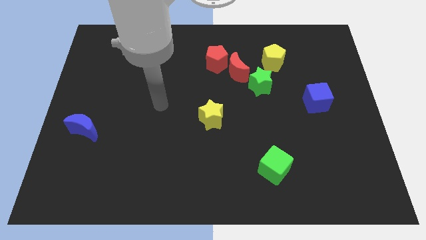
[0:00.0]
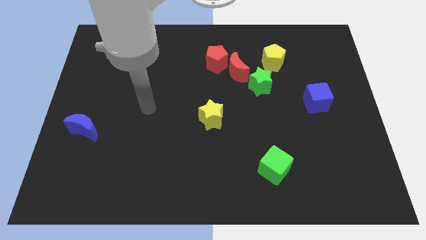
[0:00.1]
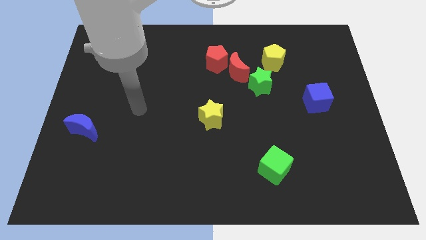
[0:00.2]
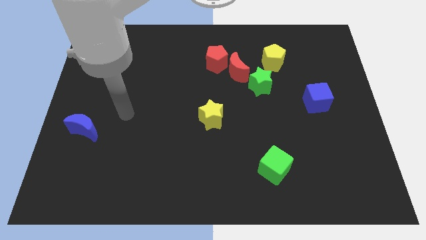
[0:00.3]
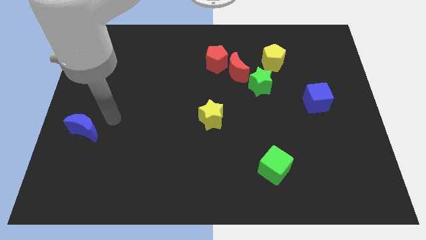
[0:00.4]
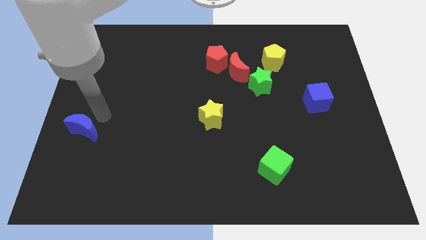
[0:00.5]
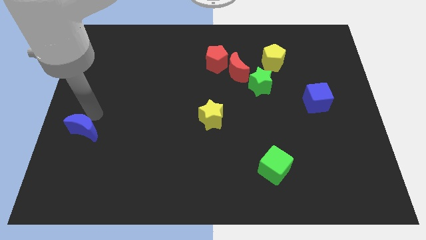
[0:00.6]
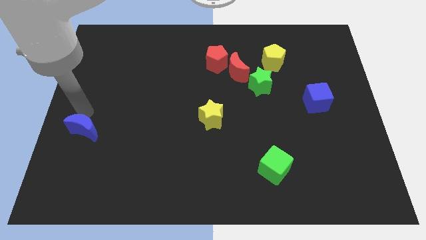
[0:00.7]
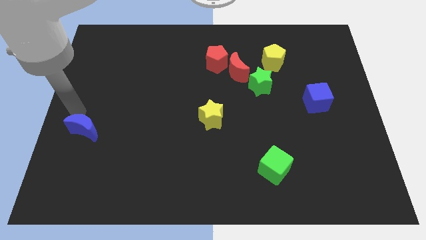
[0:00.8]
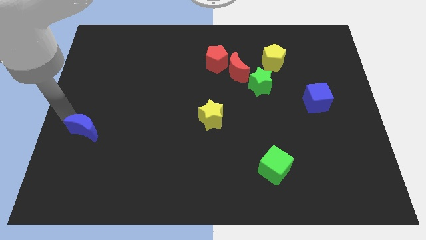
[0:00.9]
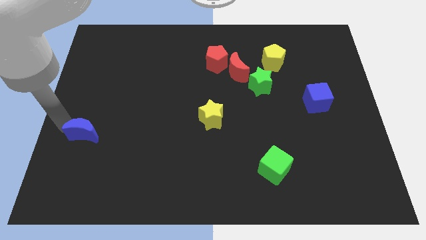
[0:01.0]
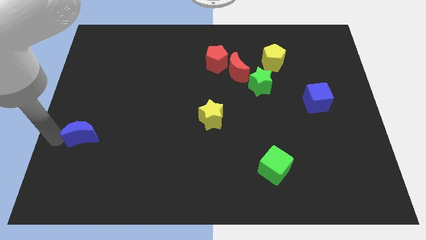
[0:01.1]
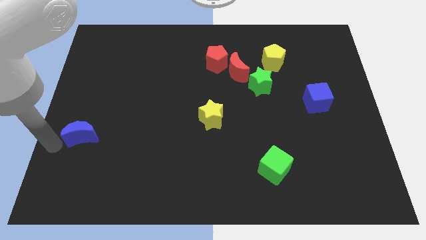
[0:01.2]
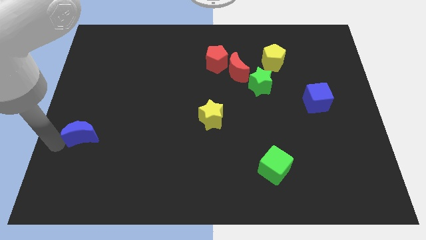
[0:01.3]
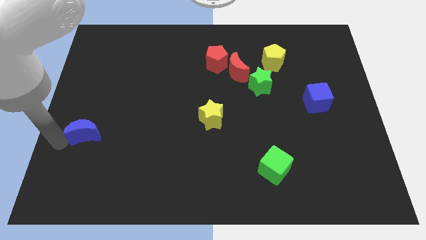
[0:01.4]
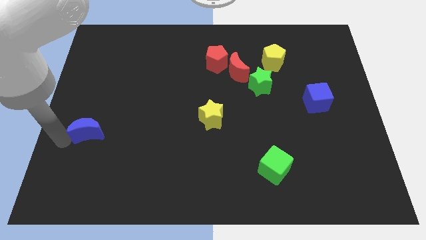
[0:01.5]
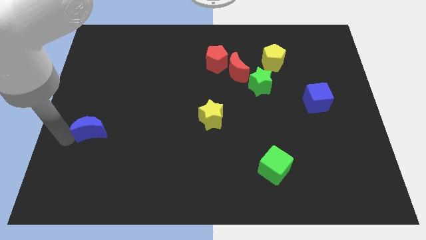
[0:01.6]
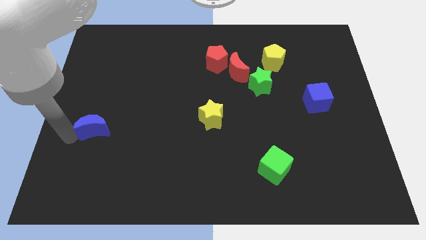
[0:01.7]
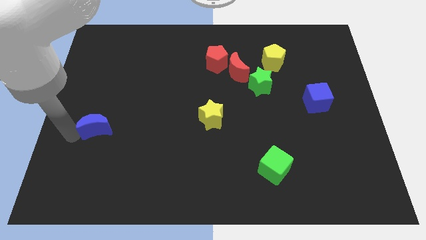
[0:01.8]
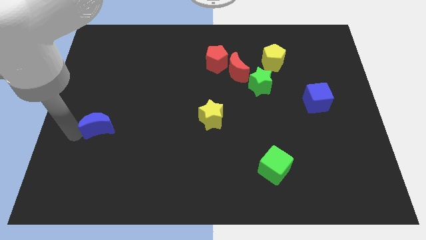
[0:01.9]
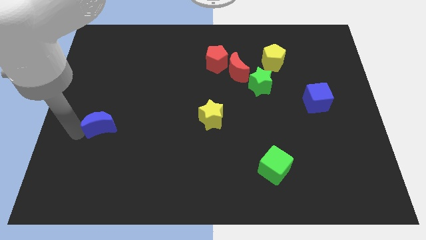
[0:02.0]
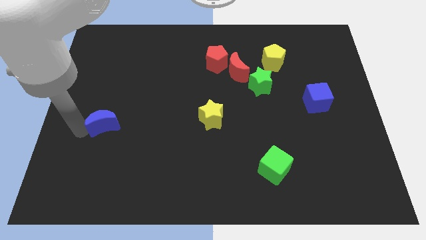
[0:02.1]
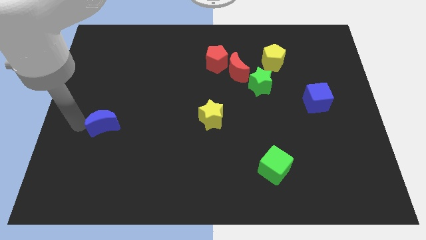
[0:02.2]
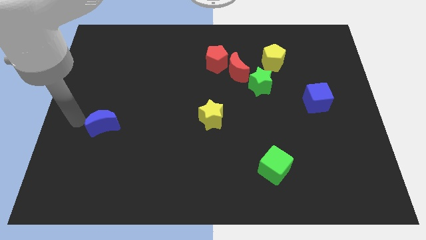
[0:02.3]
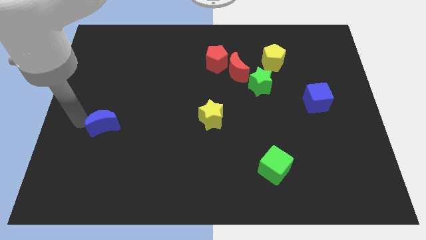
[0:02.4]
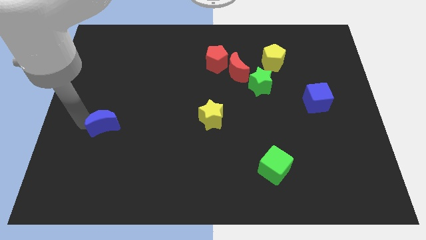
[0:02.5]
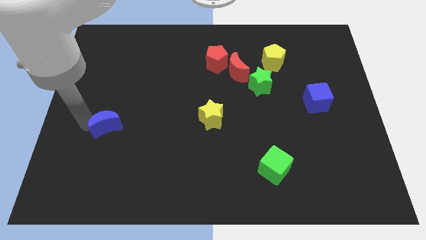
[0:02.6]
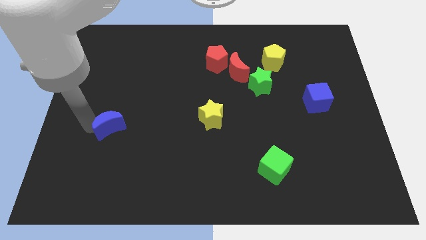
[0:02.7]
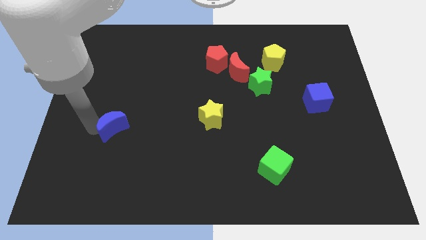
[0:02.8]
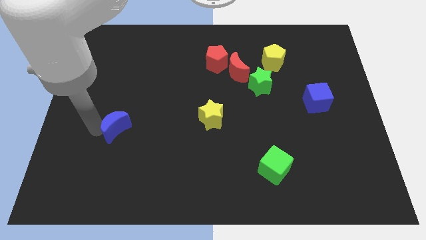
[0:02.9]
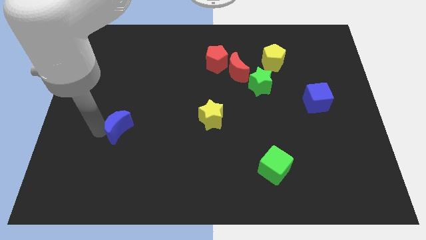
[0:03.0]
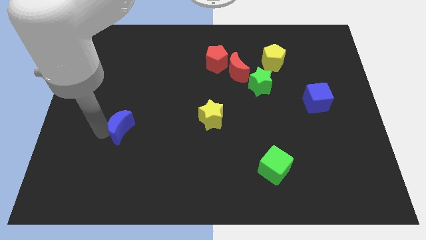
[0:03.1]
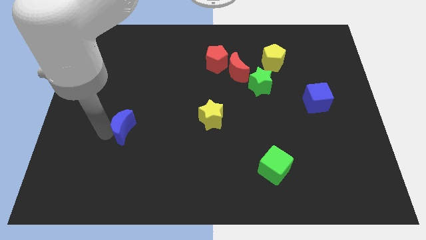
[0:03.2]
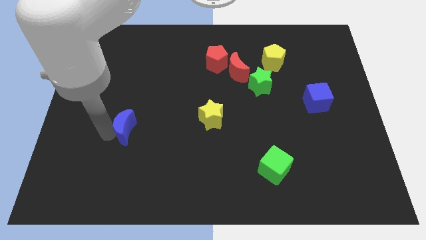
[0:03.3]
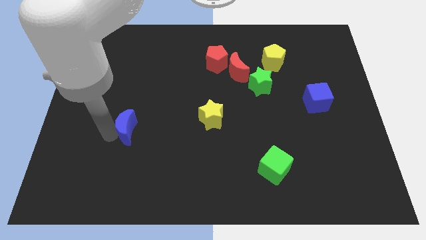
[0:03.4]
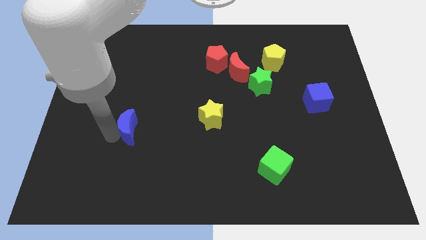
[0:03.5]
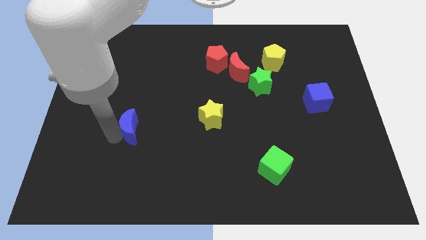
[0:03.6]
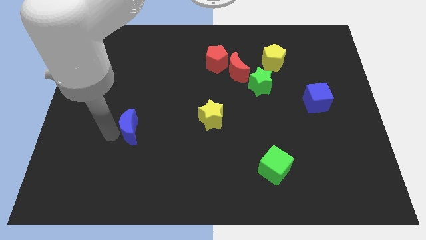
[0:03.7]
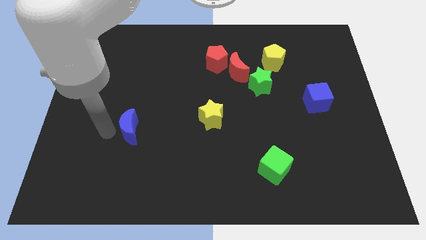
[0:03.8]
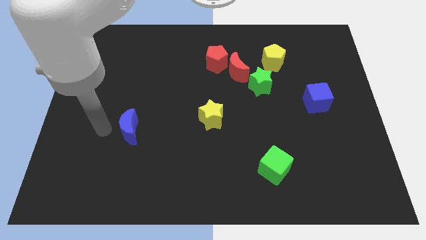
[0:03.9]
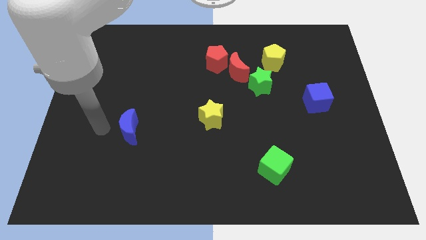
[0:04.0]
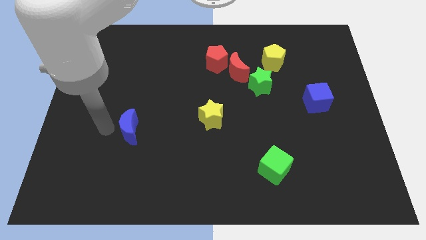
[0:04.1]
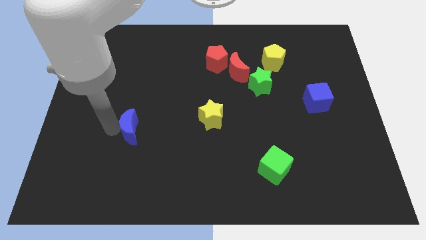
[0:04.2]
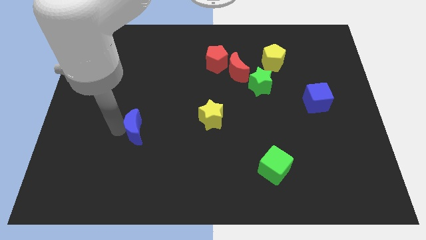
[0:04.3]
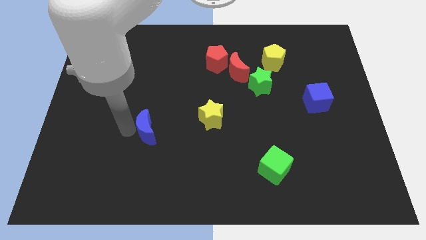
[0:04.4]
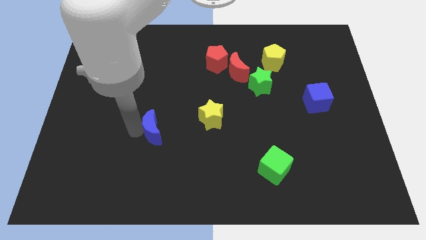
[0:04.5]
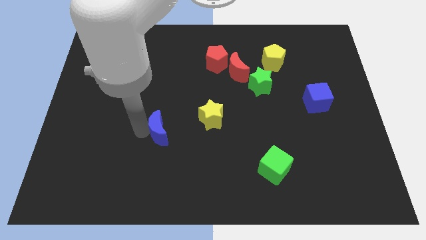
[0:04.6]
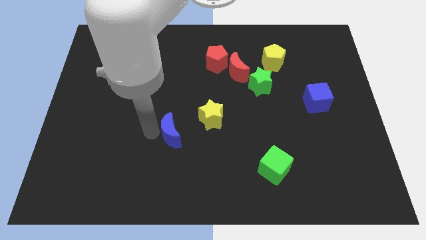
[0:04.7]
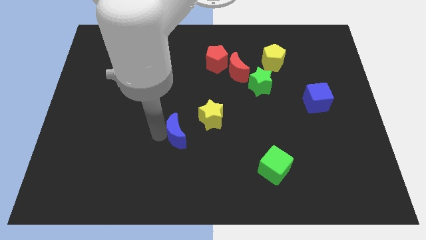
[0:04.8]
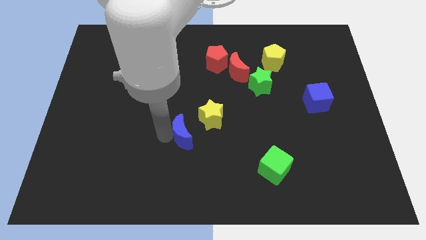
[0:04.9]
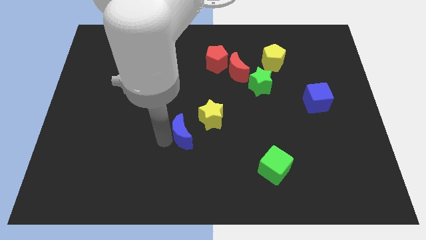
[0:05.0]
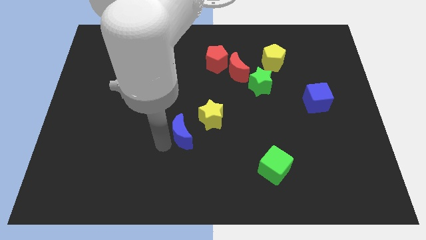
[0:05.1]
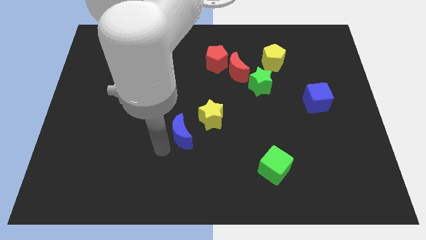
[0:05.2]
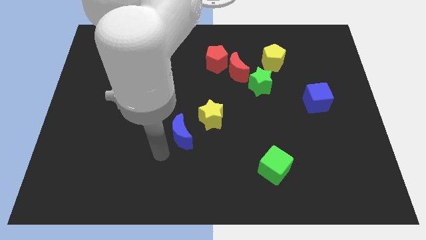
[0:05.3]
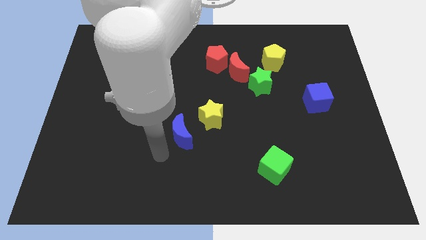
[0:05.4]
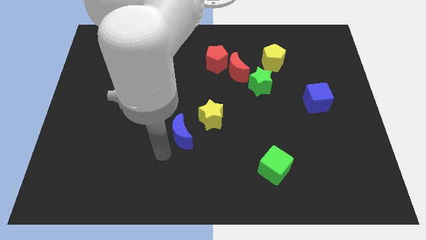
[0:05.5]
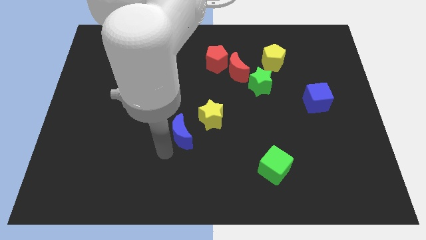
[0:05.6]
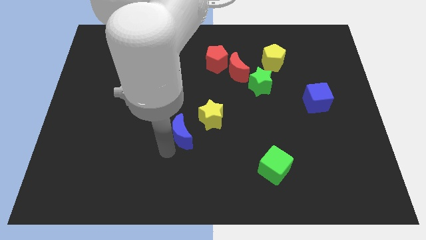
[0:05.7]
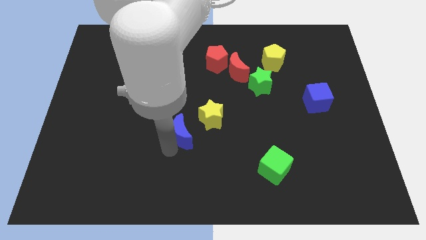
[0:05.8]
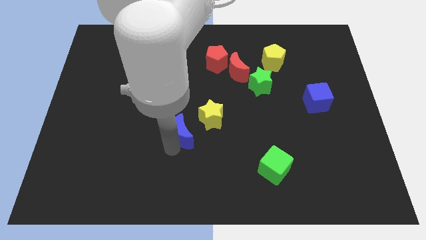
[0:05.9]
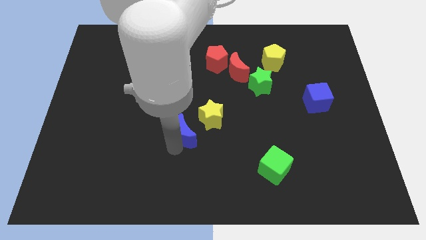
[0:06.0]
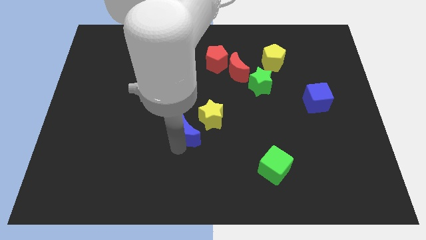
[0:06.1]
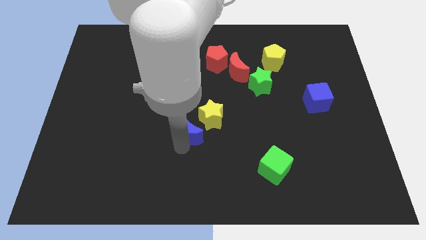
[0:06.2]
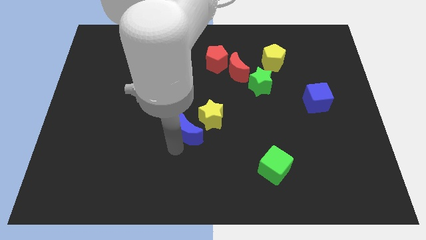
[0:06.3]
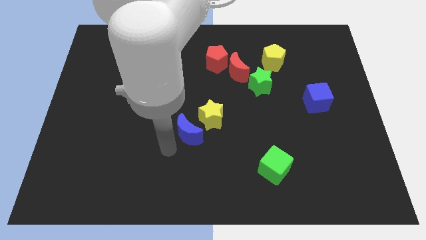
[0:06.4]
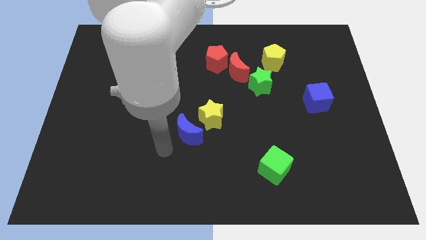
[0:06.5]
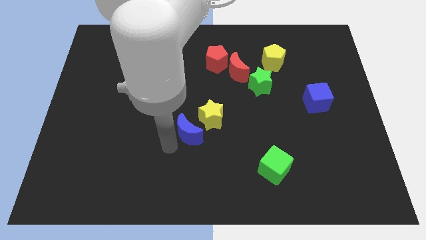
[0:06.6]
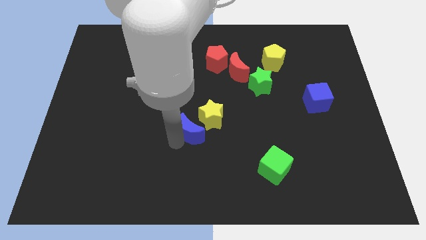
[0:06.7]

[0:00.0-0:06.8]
put the blue moon towards the yellow star
